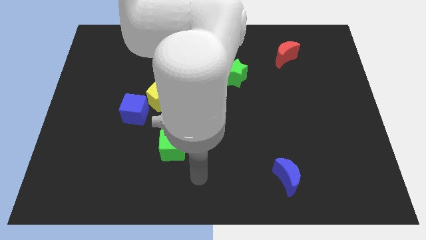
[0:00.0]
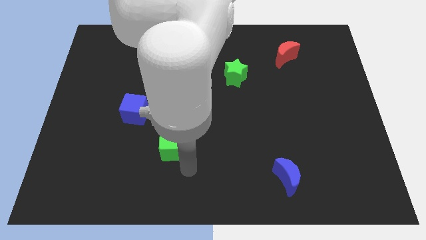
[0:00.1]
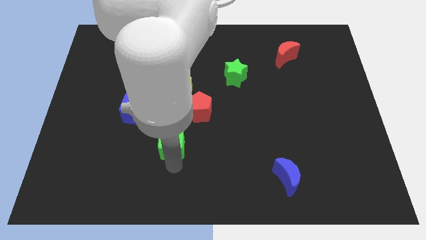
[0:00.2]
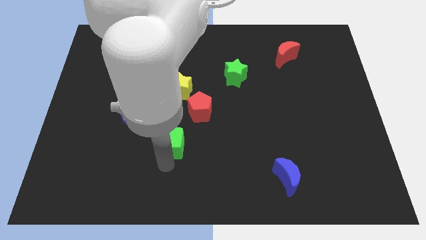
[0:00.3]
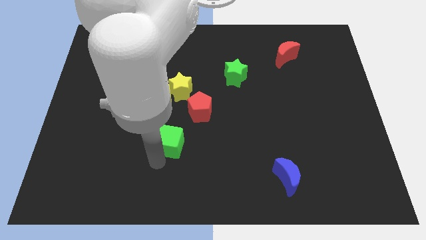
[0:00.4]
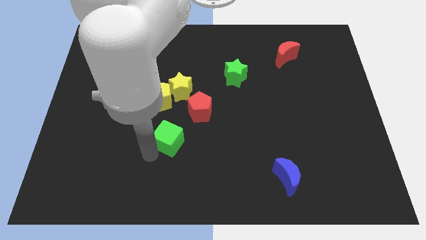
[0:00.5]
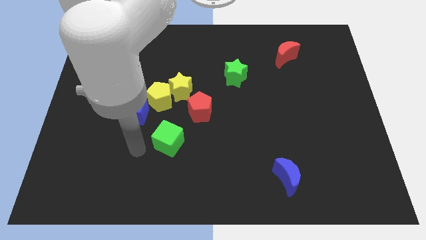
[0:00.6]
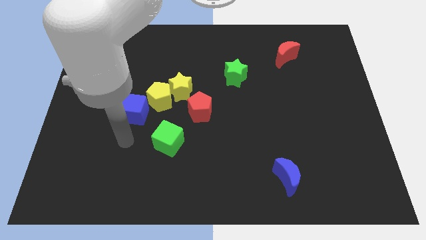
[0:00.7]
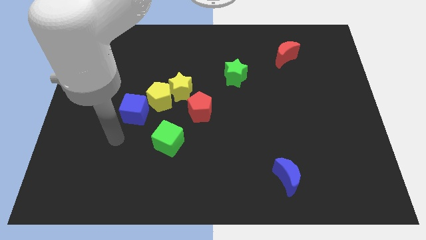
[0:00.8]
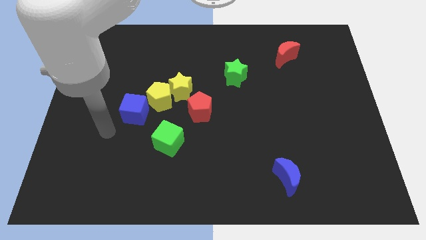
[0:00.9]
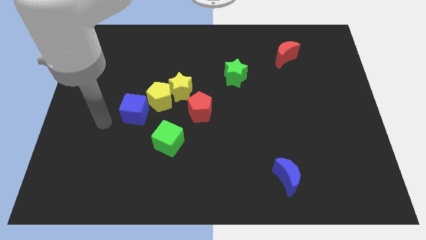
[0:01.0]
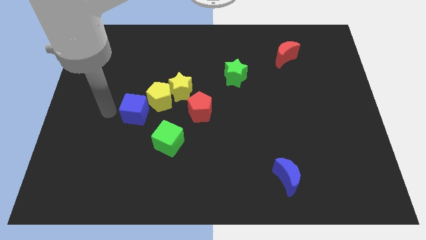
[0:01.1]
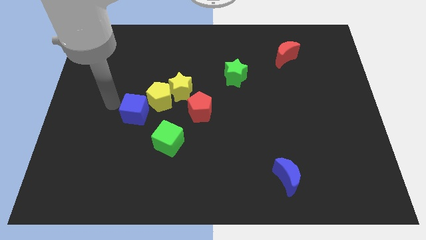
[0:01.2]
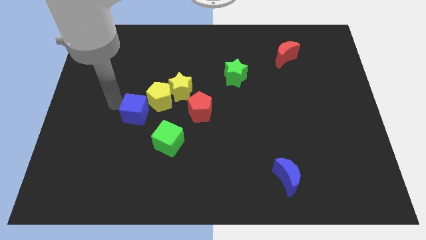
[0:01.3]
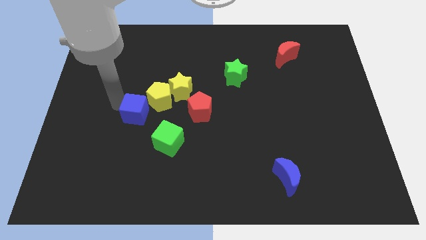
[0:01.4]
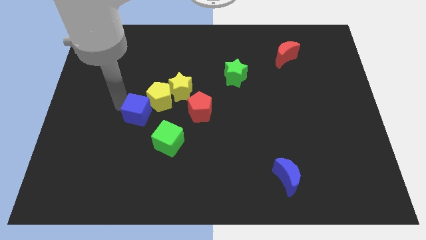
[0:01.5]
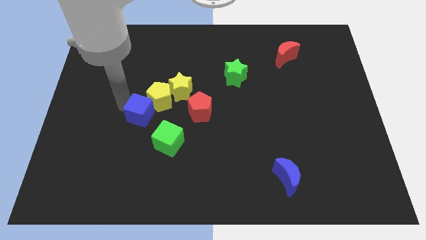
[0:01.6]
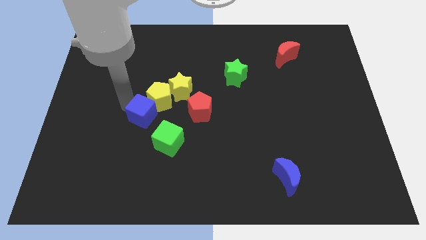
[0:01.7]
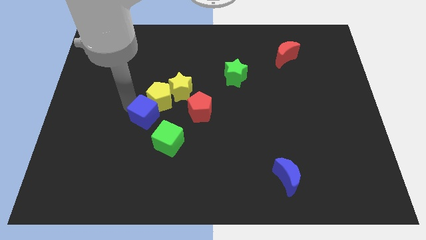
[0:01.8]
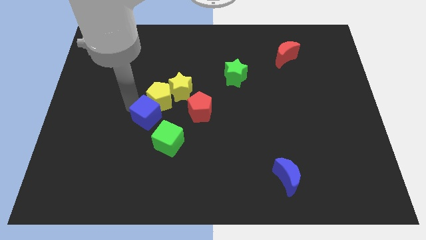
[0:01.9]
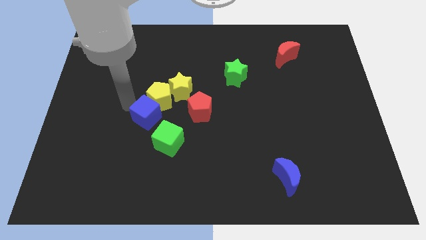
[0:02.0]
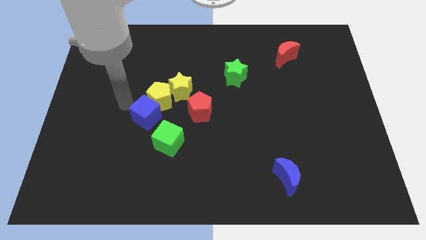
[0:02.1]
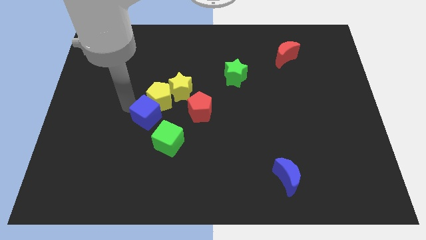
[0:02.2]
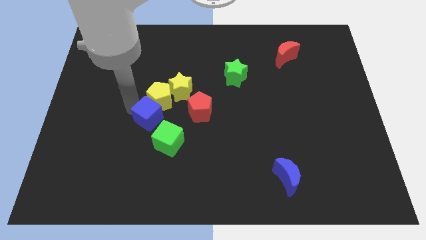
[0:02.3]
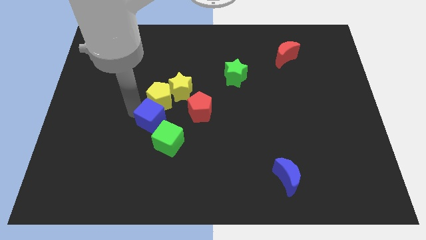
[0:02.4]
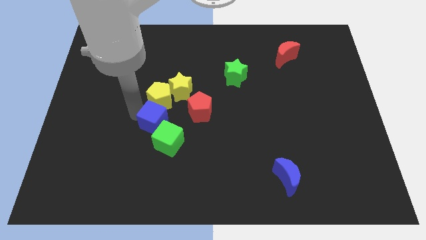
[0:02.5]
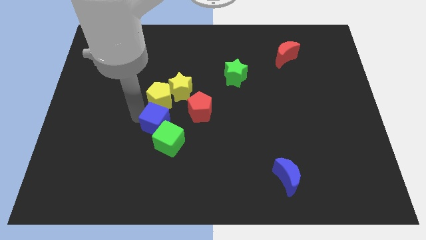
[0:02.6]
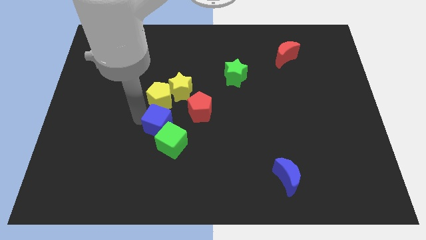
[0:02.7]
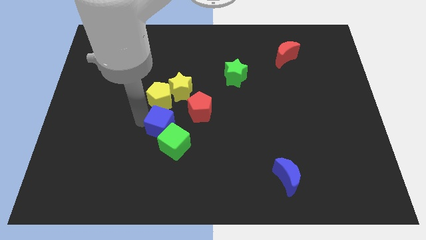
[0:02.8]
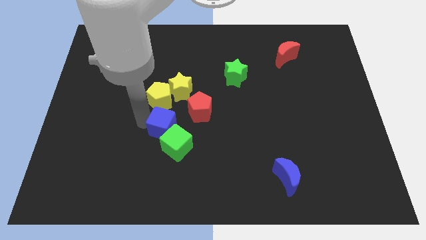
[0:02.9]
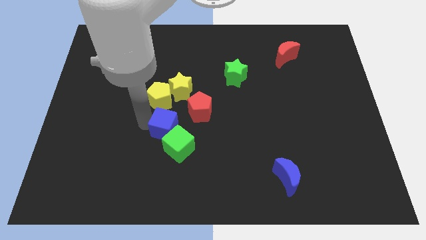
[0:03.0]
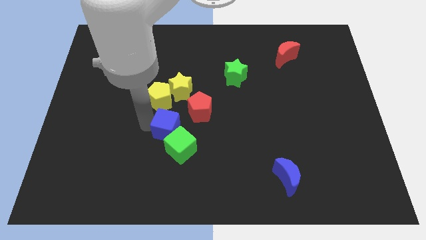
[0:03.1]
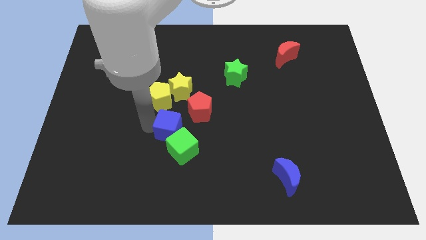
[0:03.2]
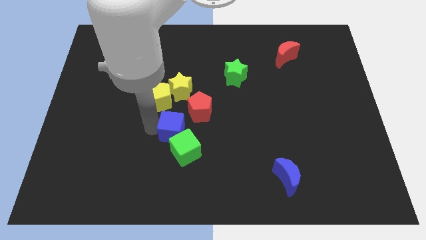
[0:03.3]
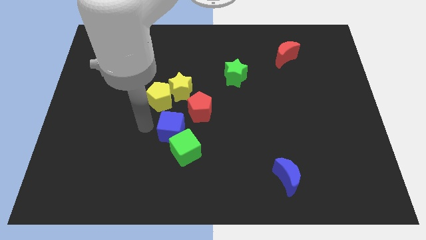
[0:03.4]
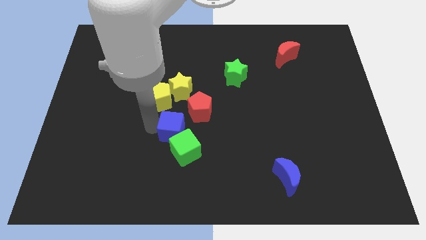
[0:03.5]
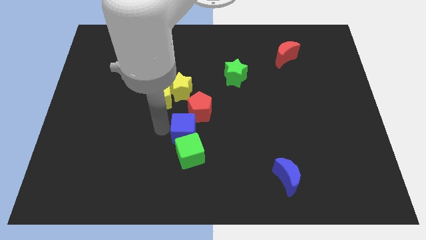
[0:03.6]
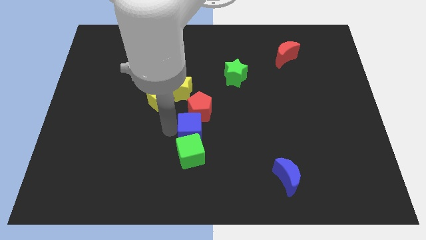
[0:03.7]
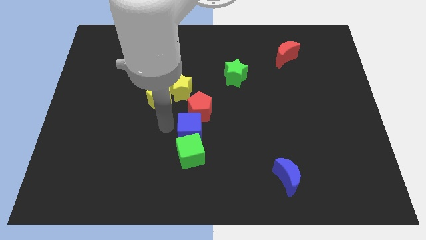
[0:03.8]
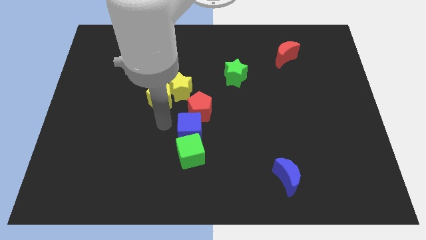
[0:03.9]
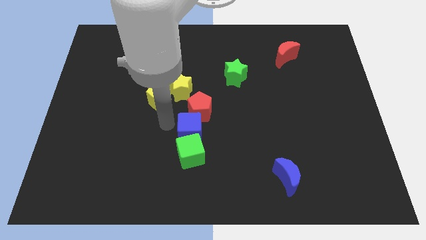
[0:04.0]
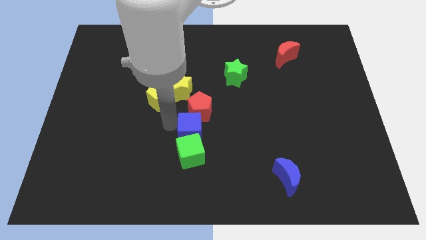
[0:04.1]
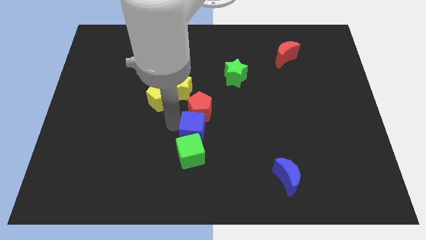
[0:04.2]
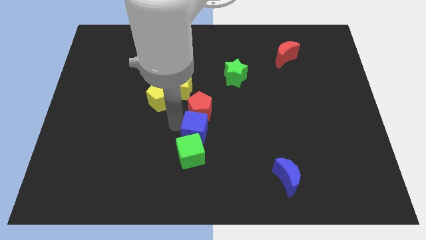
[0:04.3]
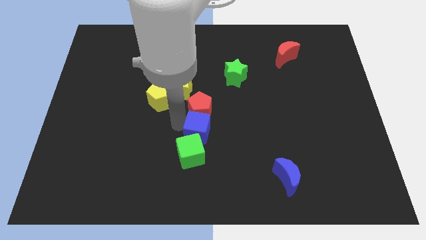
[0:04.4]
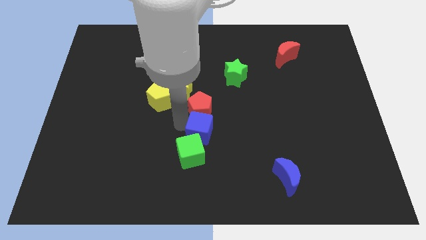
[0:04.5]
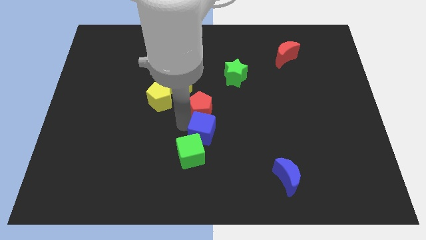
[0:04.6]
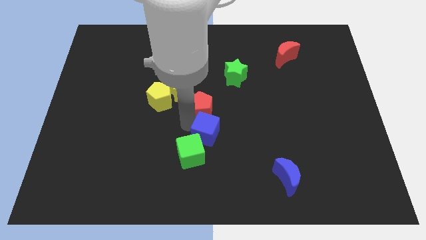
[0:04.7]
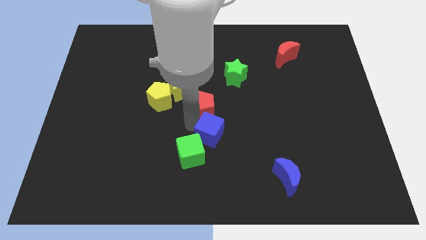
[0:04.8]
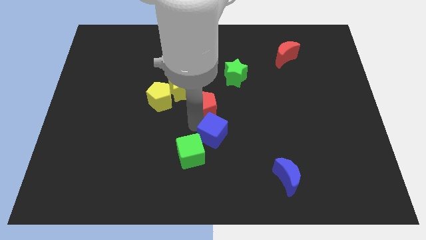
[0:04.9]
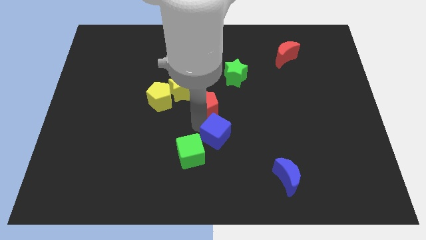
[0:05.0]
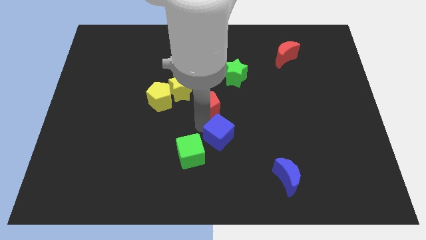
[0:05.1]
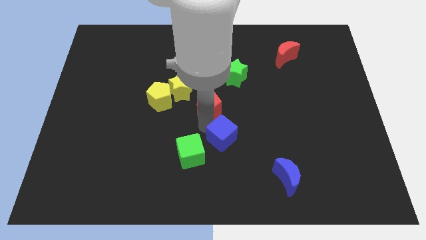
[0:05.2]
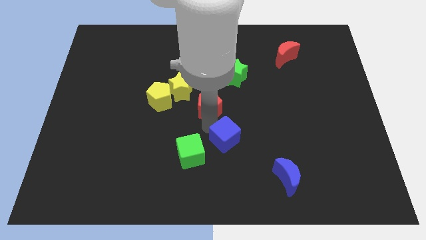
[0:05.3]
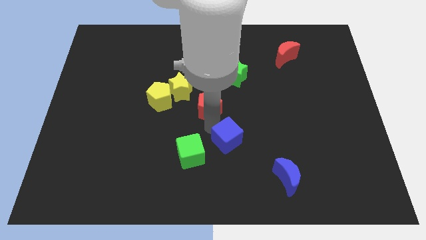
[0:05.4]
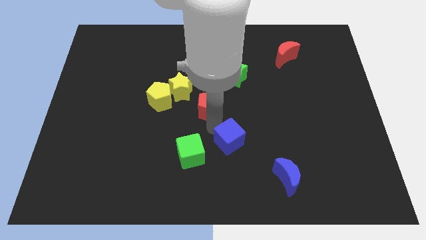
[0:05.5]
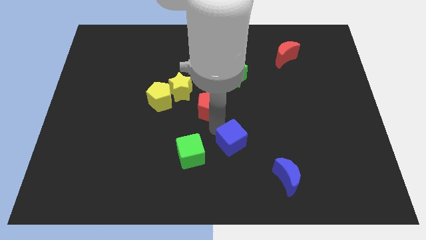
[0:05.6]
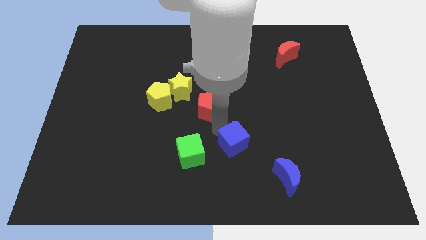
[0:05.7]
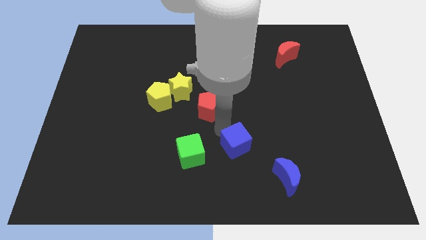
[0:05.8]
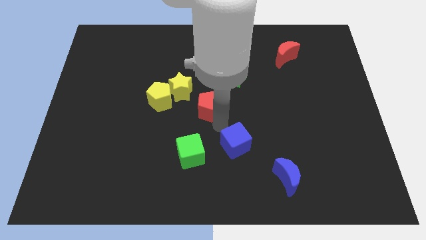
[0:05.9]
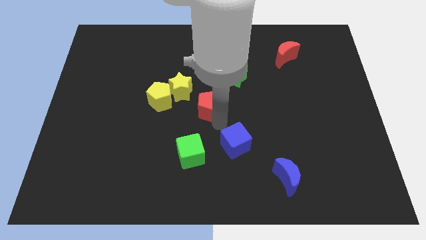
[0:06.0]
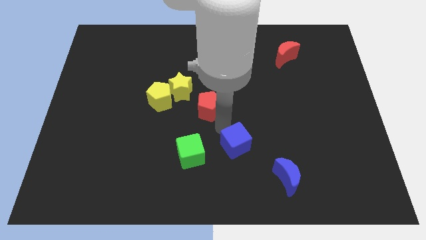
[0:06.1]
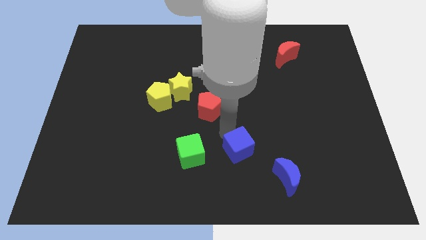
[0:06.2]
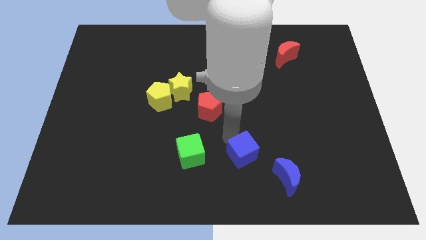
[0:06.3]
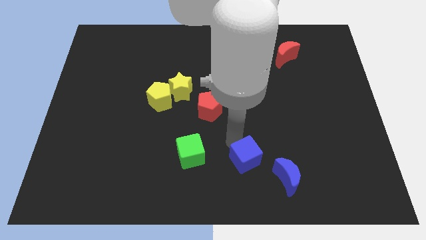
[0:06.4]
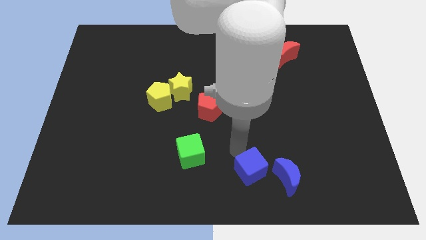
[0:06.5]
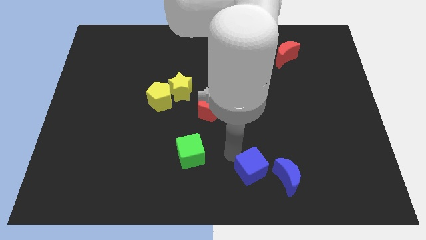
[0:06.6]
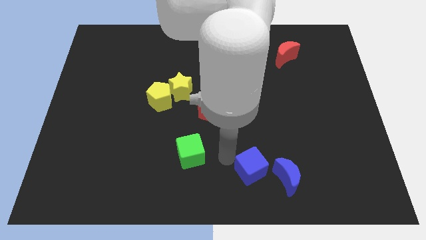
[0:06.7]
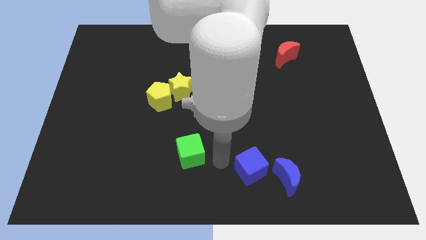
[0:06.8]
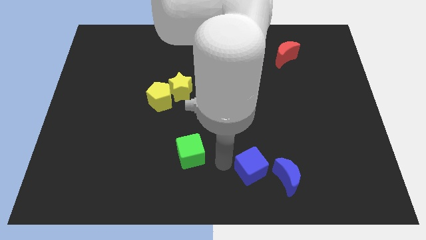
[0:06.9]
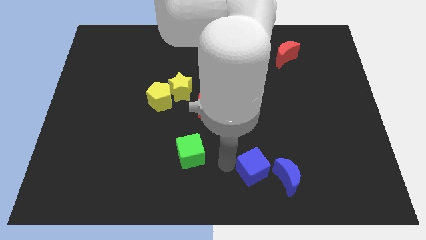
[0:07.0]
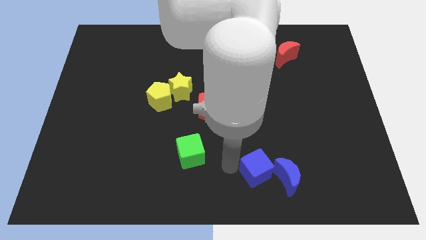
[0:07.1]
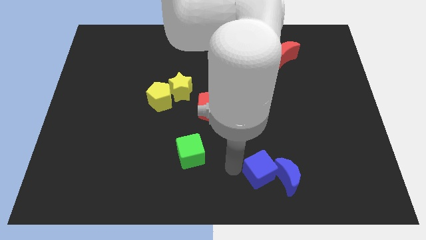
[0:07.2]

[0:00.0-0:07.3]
move the blue cube towards the blue moon

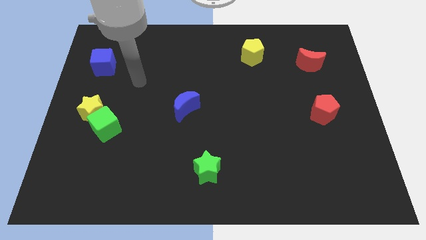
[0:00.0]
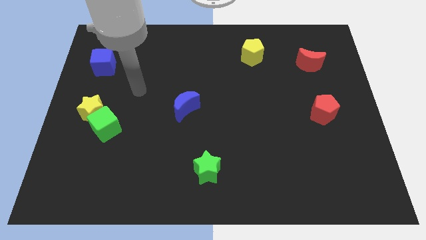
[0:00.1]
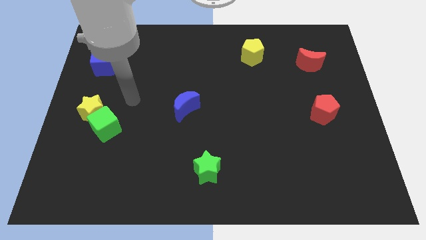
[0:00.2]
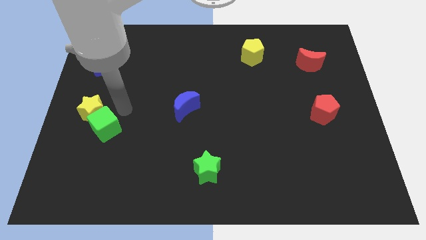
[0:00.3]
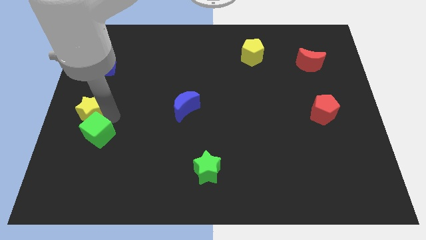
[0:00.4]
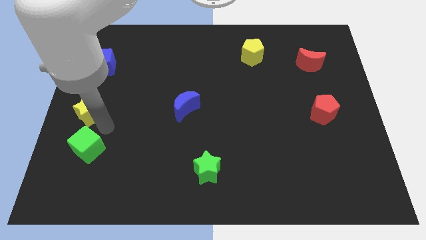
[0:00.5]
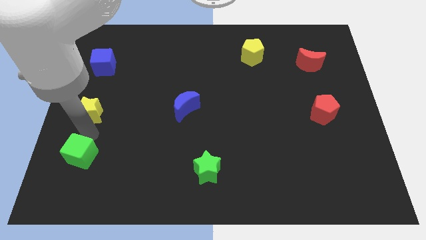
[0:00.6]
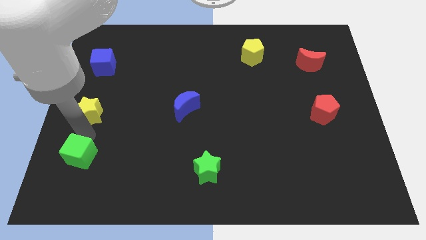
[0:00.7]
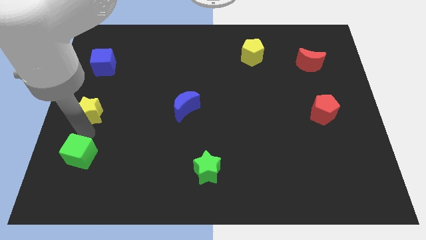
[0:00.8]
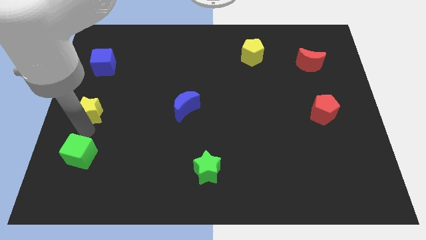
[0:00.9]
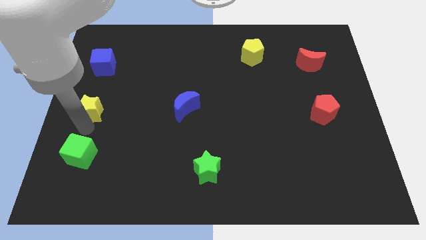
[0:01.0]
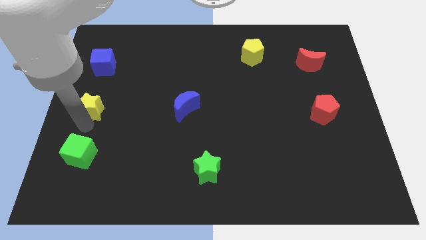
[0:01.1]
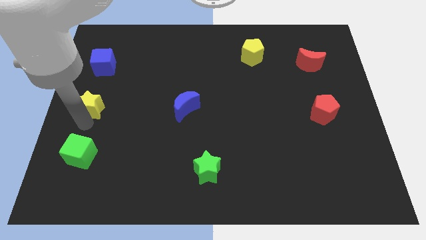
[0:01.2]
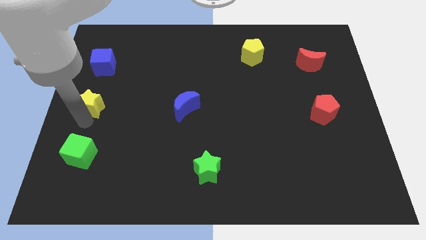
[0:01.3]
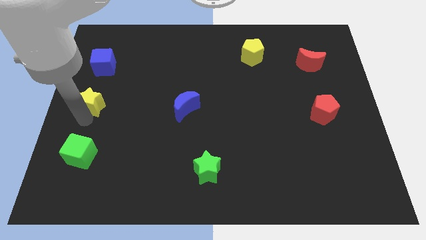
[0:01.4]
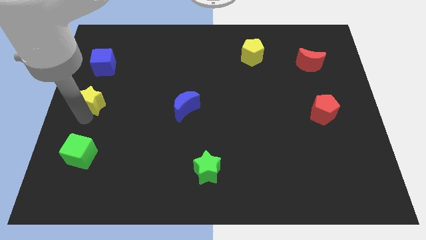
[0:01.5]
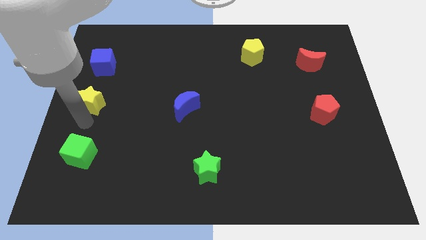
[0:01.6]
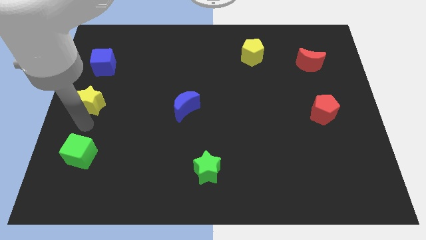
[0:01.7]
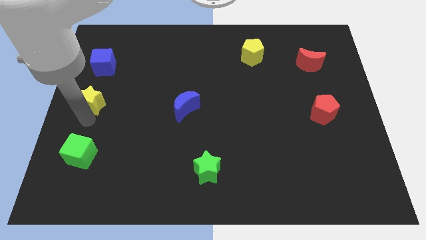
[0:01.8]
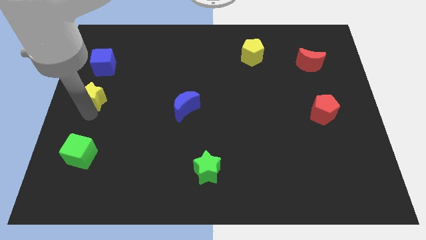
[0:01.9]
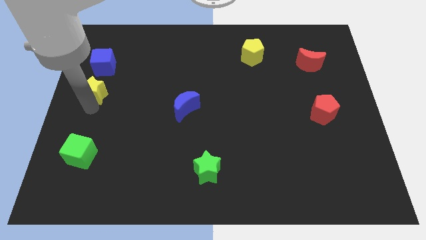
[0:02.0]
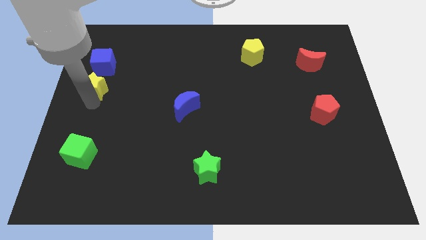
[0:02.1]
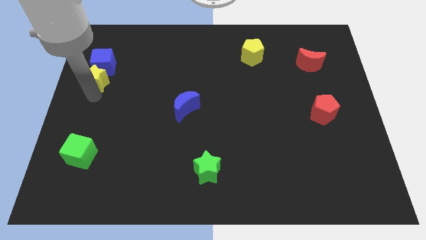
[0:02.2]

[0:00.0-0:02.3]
put the yellow star next to the blue cube
